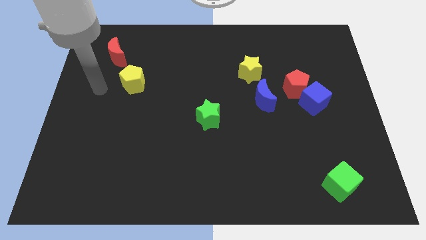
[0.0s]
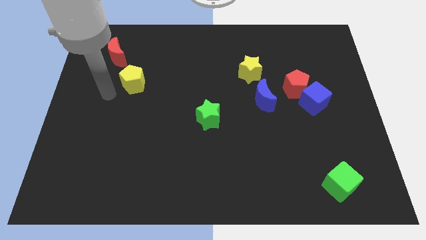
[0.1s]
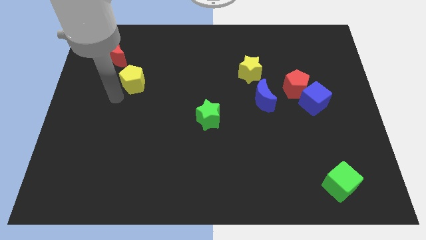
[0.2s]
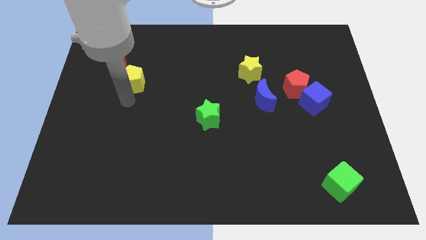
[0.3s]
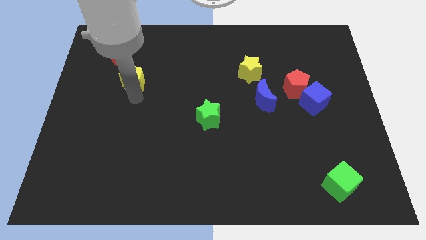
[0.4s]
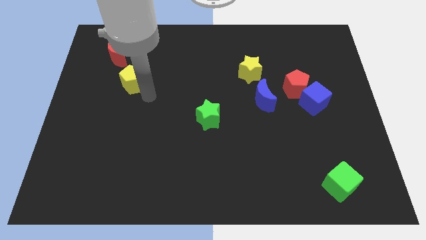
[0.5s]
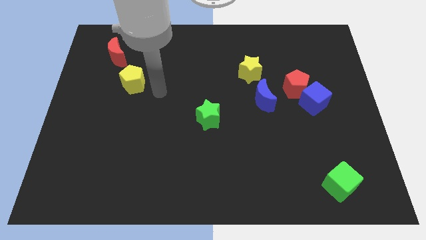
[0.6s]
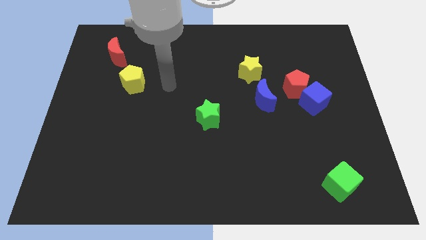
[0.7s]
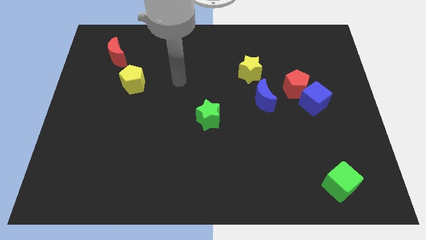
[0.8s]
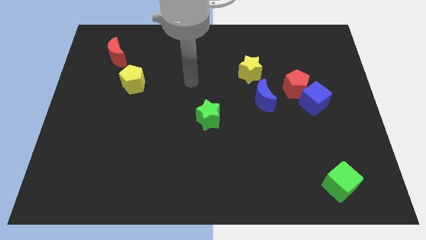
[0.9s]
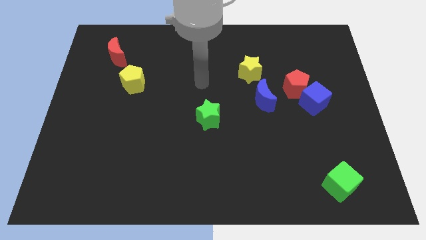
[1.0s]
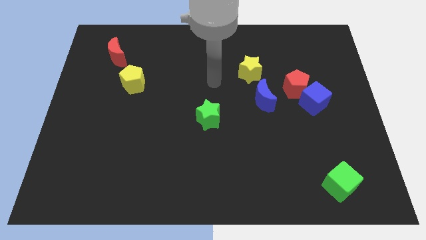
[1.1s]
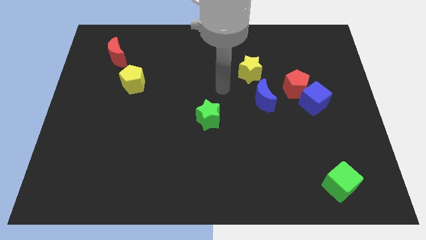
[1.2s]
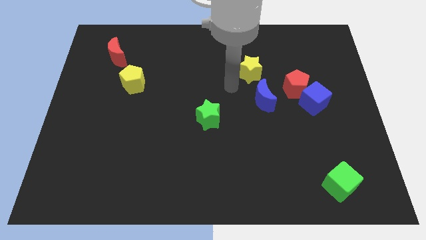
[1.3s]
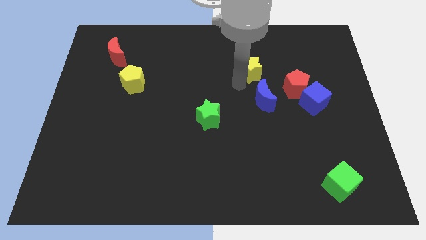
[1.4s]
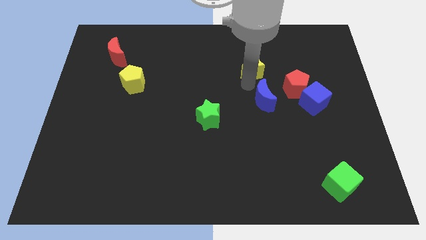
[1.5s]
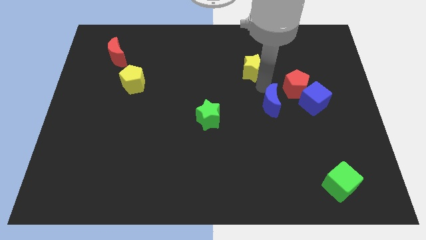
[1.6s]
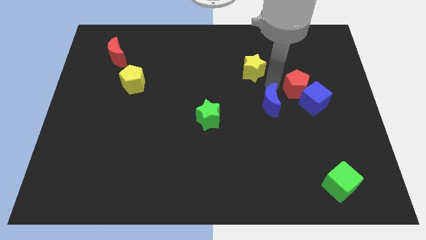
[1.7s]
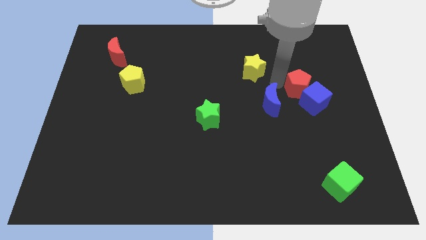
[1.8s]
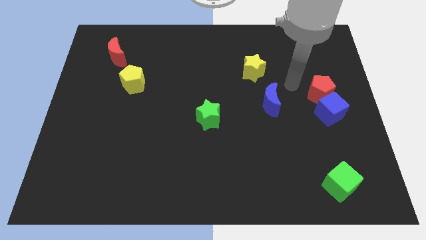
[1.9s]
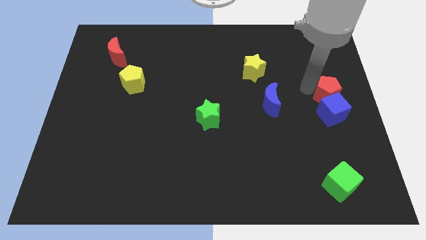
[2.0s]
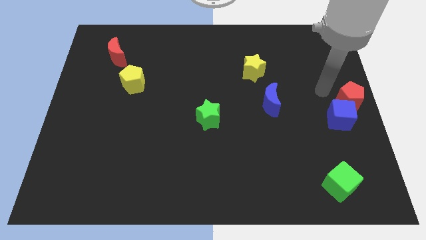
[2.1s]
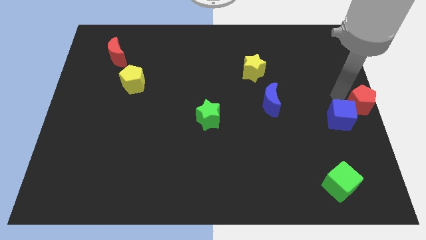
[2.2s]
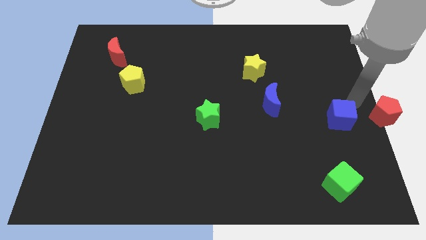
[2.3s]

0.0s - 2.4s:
pull the blue cube apart from the red pentagon

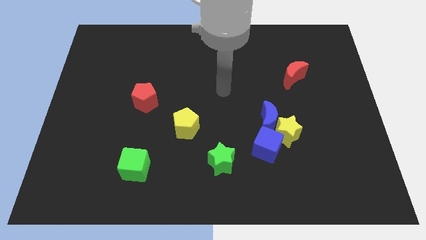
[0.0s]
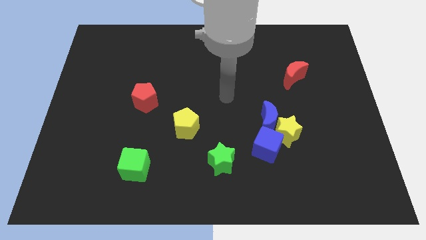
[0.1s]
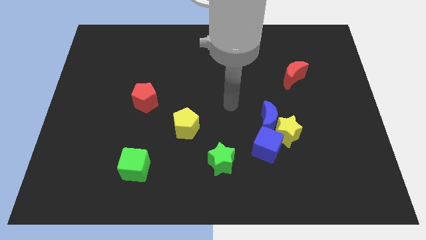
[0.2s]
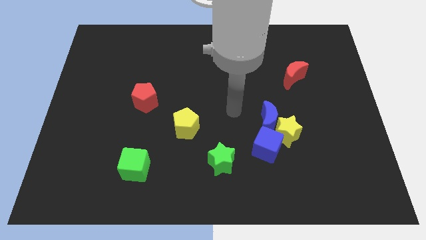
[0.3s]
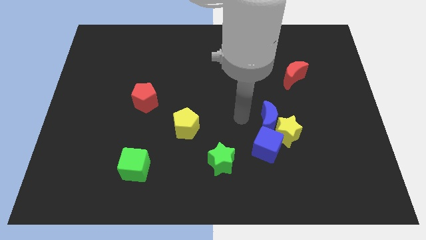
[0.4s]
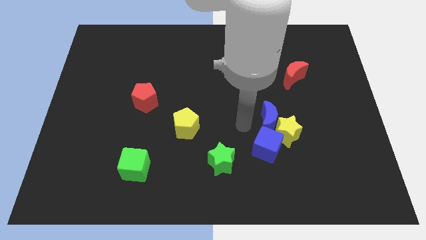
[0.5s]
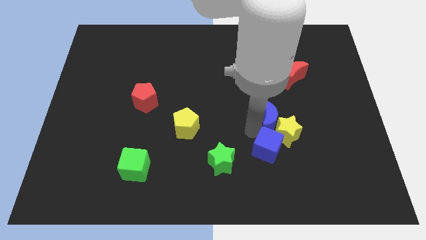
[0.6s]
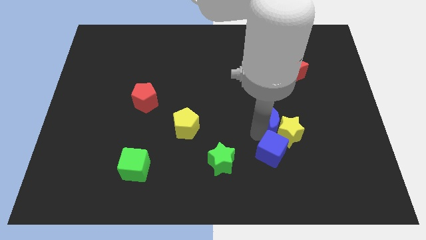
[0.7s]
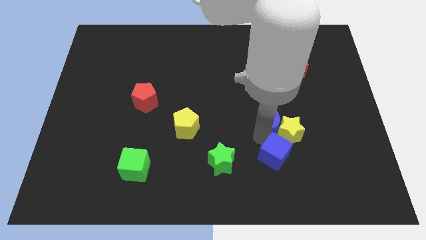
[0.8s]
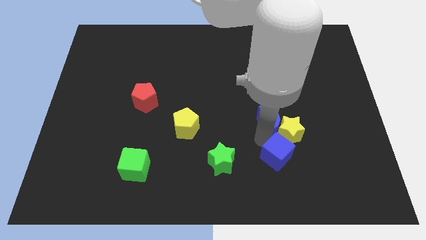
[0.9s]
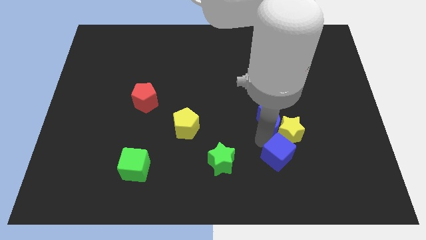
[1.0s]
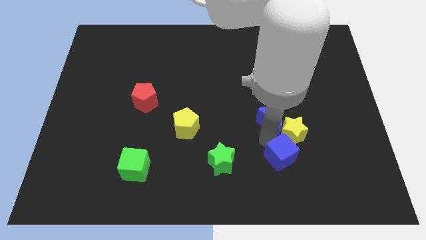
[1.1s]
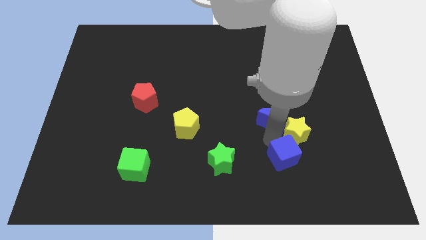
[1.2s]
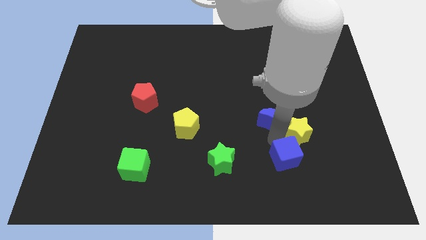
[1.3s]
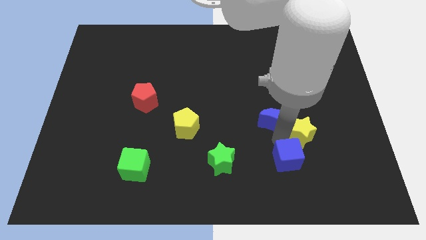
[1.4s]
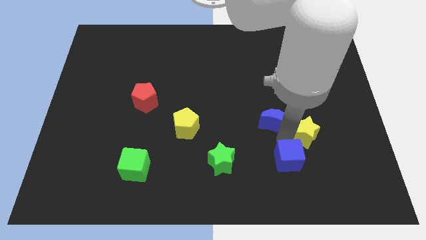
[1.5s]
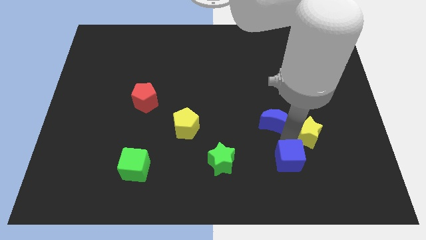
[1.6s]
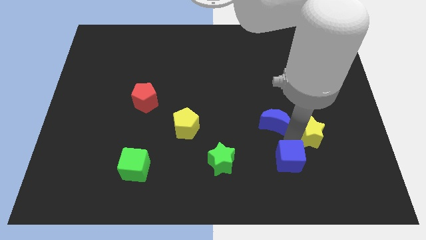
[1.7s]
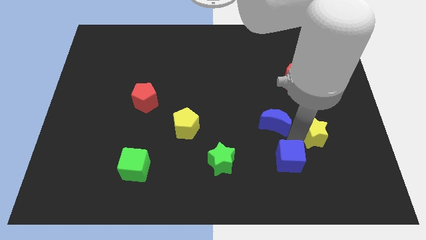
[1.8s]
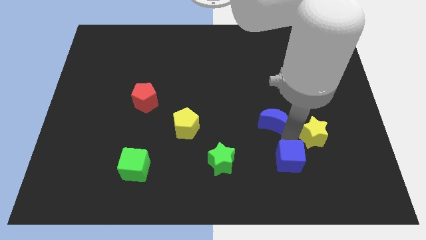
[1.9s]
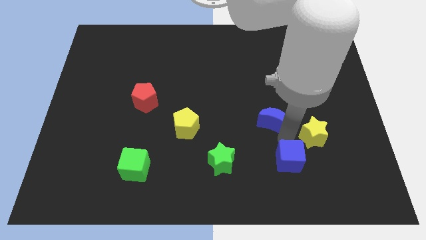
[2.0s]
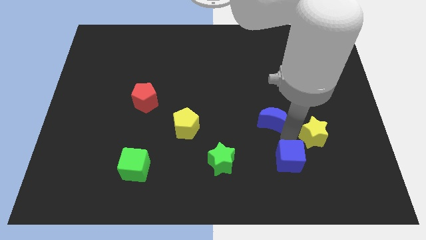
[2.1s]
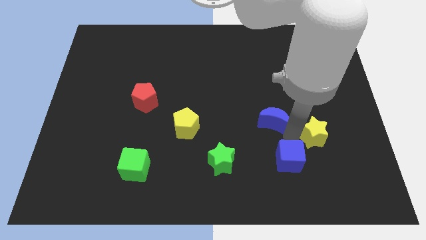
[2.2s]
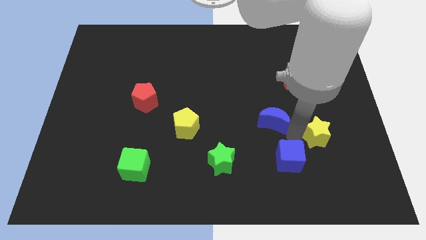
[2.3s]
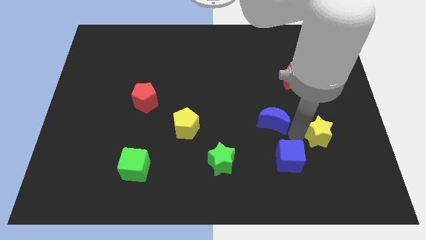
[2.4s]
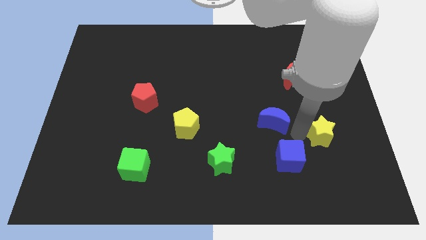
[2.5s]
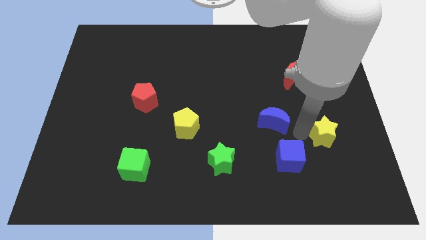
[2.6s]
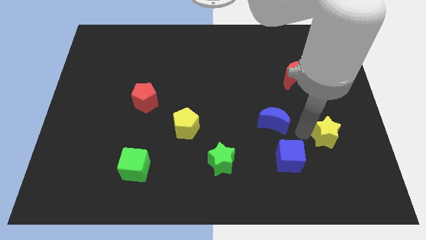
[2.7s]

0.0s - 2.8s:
move the yellow star away from the blue moon and blue cube

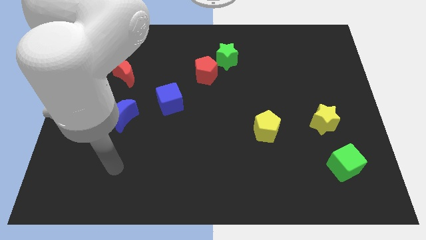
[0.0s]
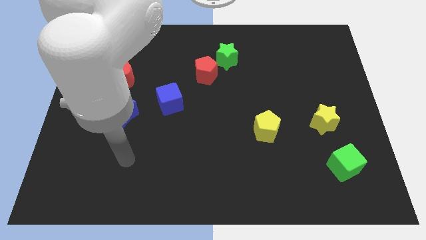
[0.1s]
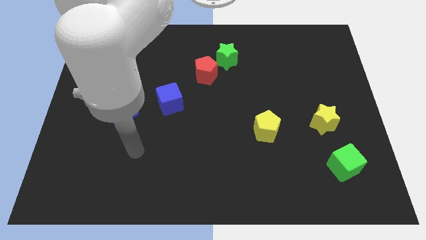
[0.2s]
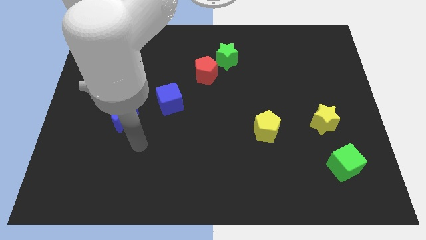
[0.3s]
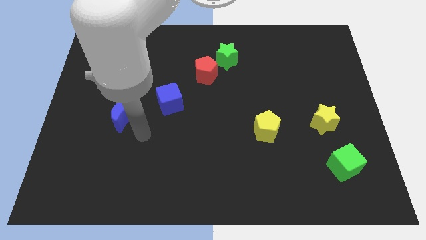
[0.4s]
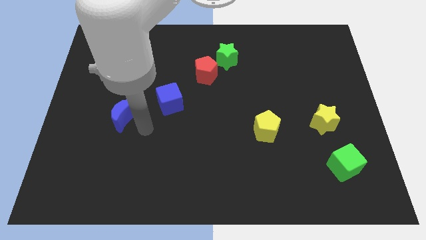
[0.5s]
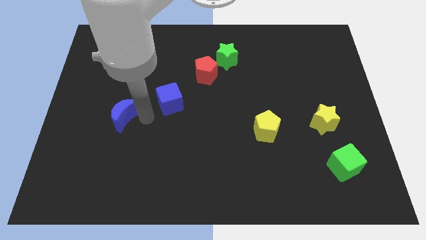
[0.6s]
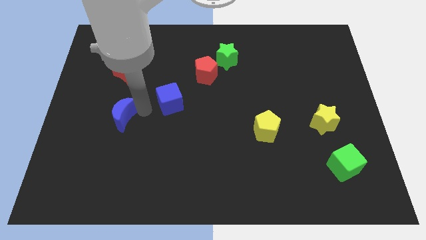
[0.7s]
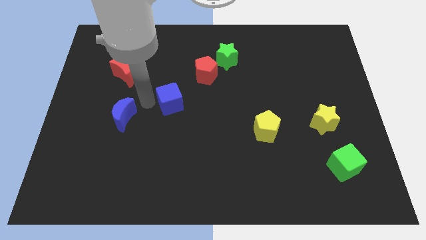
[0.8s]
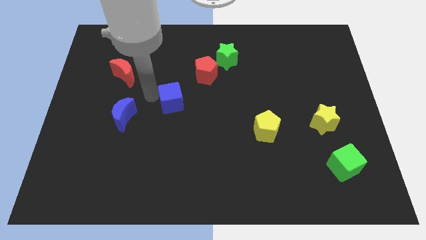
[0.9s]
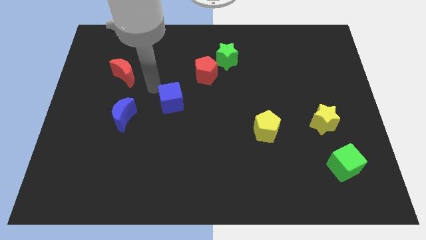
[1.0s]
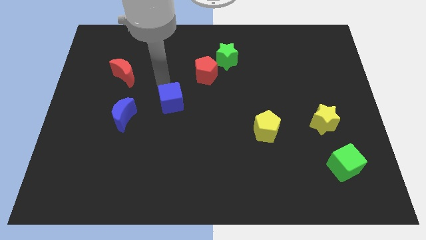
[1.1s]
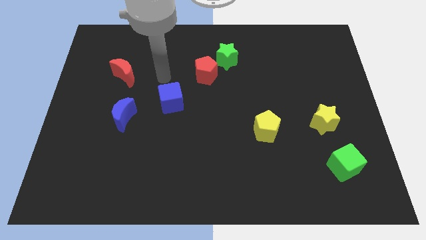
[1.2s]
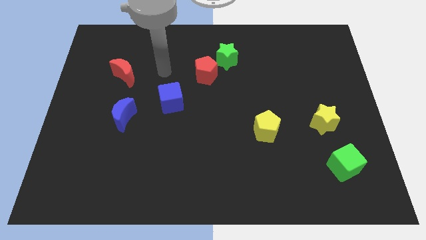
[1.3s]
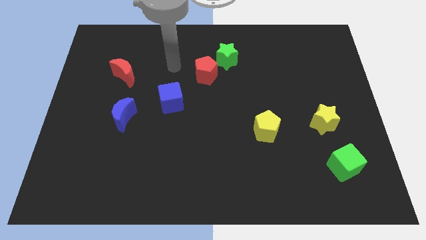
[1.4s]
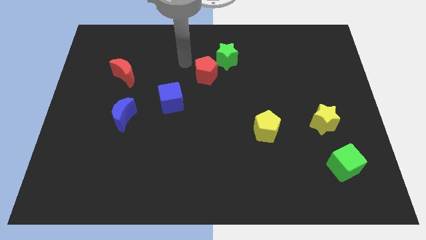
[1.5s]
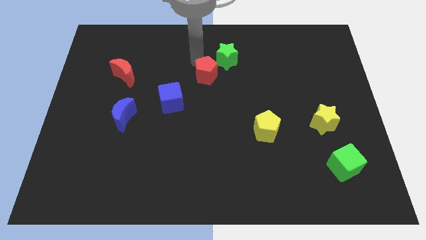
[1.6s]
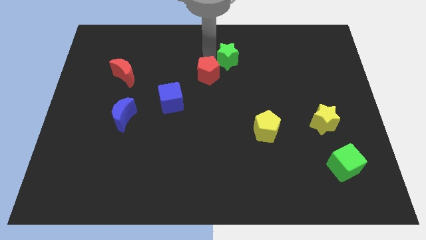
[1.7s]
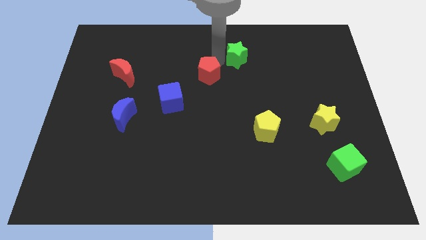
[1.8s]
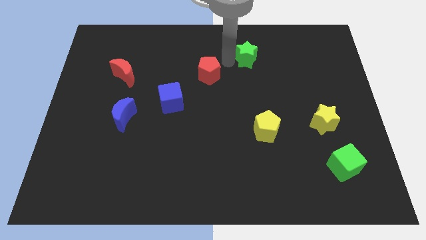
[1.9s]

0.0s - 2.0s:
move the red pentagon away from the green star

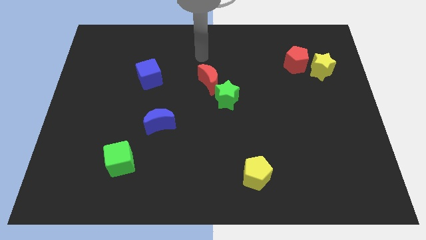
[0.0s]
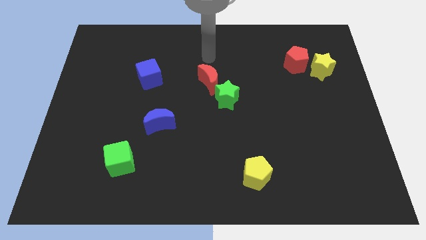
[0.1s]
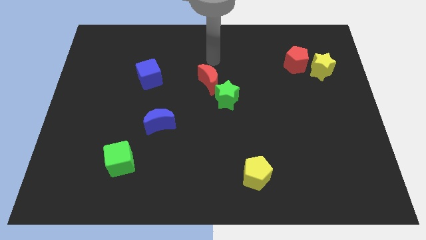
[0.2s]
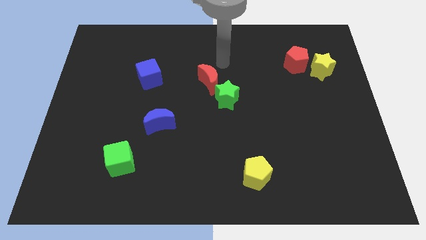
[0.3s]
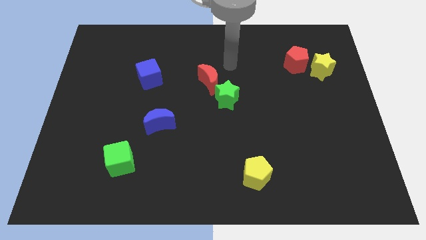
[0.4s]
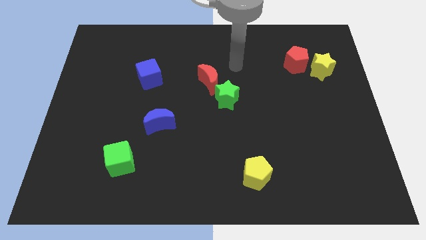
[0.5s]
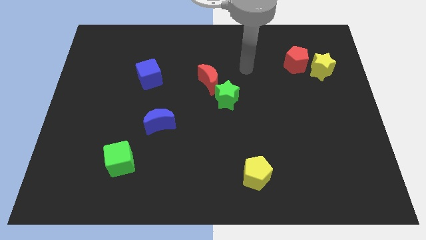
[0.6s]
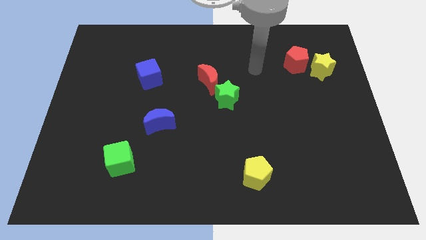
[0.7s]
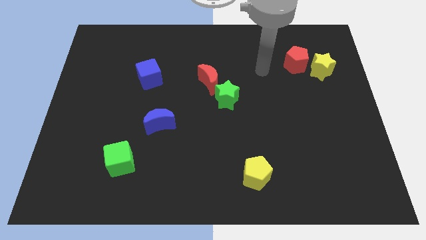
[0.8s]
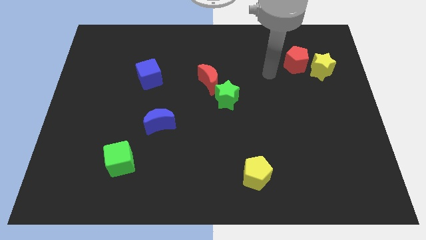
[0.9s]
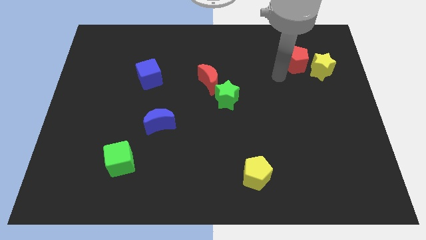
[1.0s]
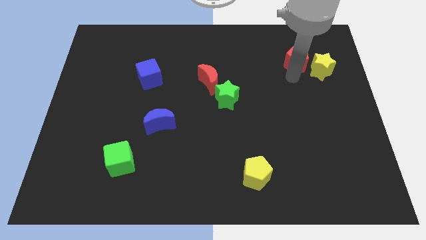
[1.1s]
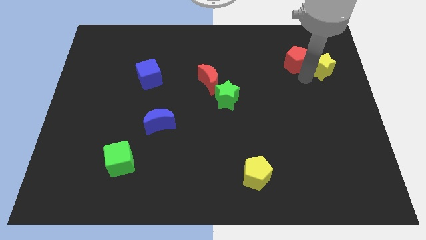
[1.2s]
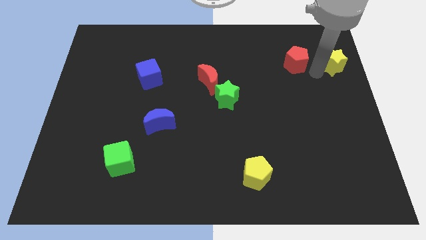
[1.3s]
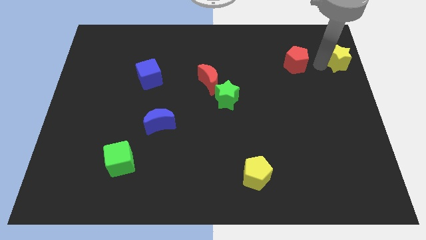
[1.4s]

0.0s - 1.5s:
pull the red pentagon apart from the yellow star

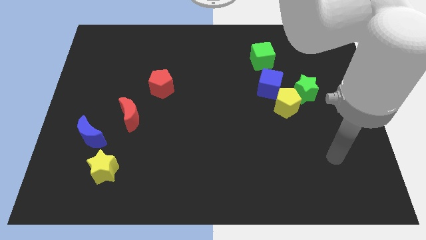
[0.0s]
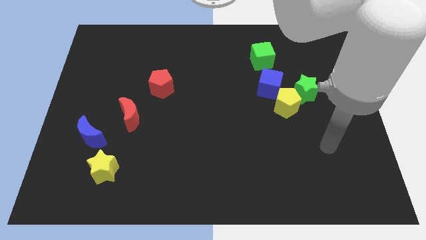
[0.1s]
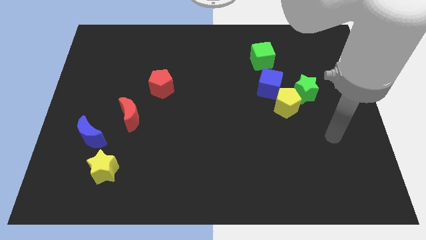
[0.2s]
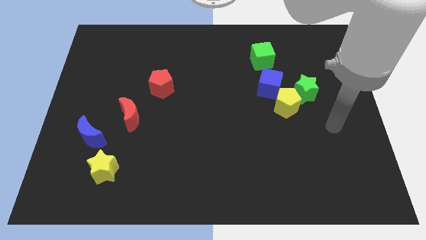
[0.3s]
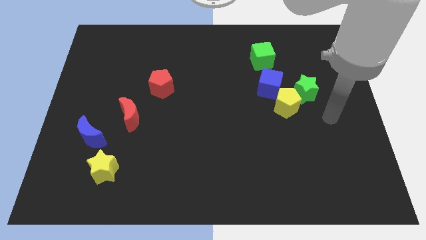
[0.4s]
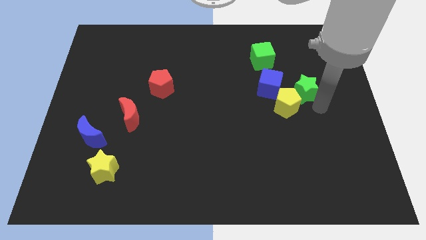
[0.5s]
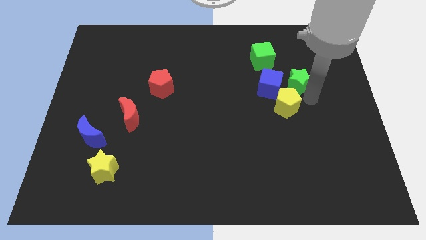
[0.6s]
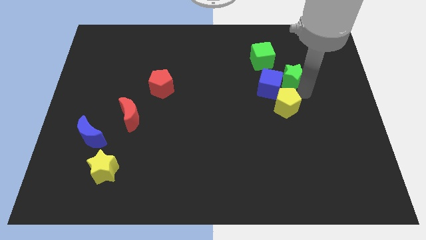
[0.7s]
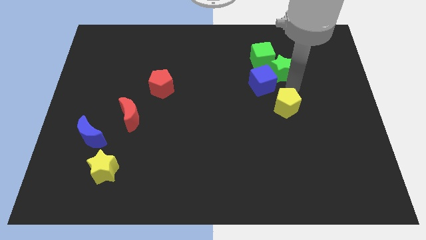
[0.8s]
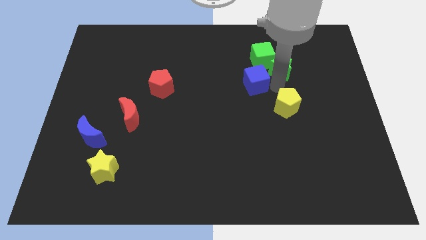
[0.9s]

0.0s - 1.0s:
move the yellow pentagon away from the green star and blue cube
